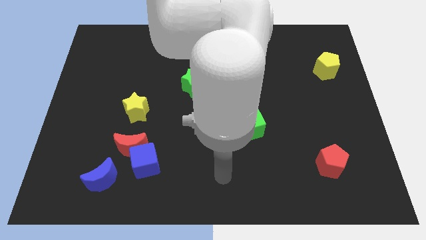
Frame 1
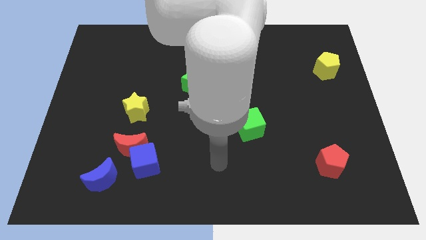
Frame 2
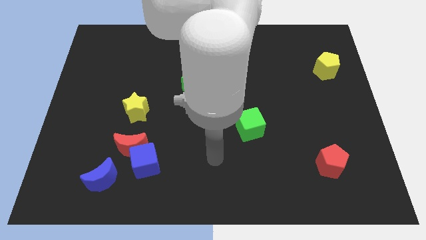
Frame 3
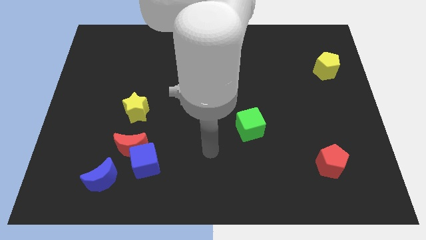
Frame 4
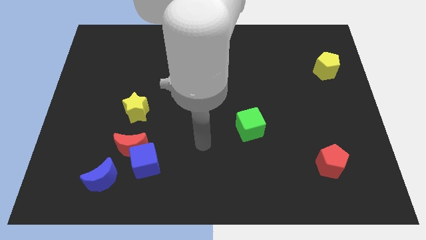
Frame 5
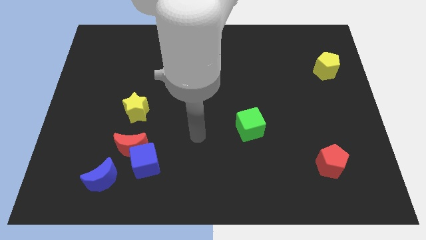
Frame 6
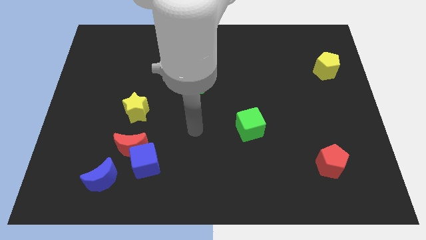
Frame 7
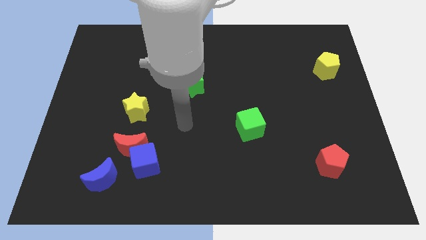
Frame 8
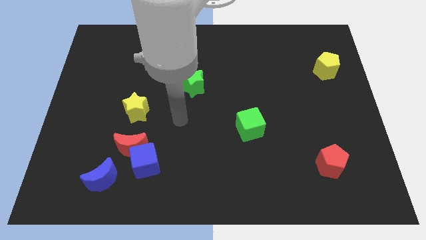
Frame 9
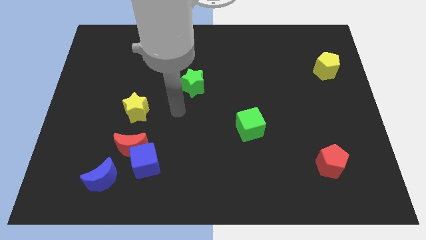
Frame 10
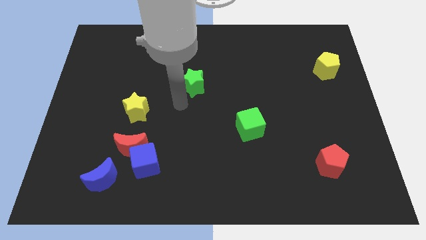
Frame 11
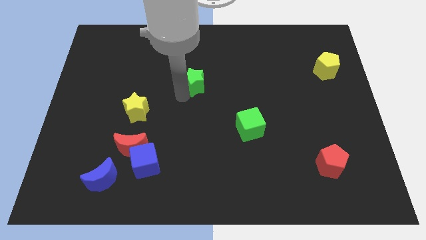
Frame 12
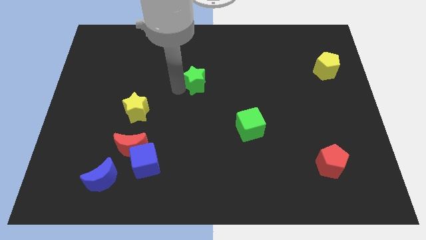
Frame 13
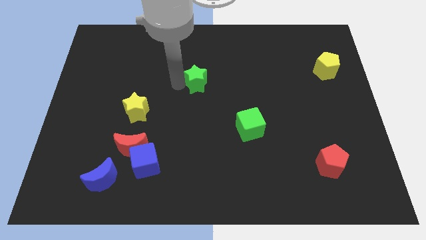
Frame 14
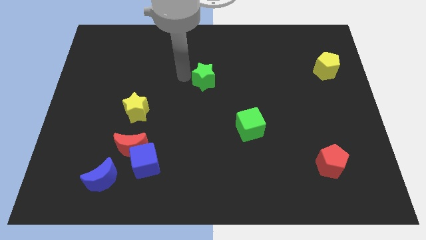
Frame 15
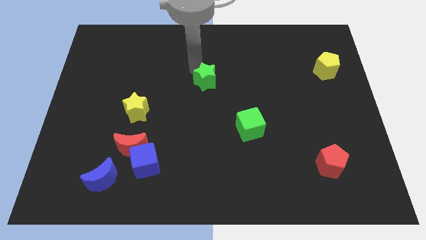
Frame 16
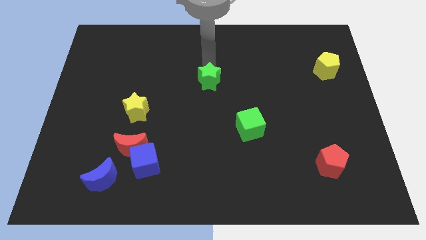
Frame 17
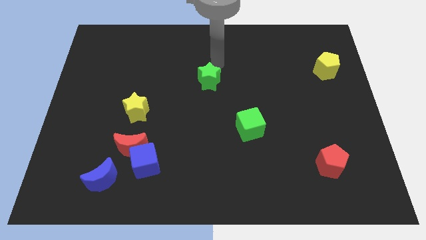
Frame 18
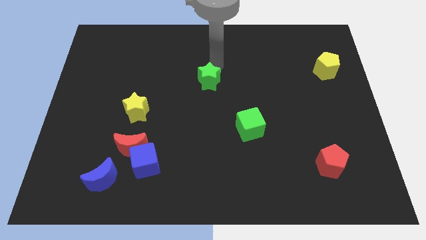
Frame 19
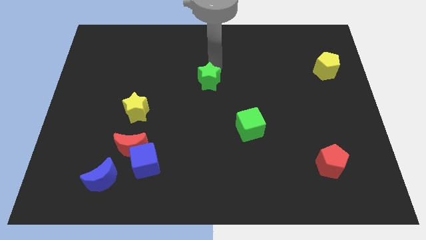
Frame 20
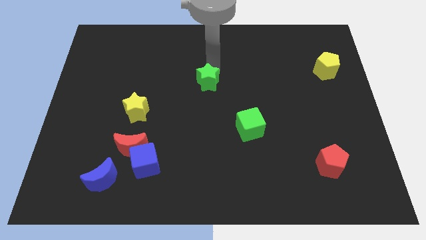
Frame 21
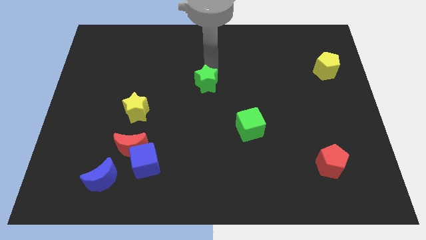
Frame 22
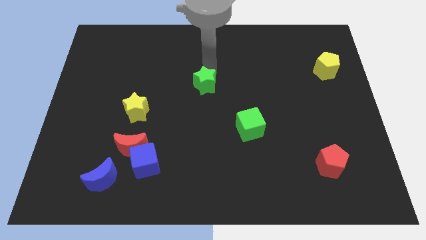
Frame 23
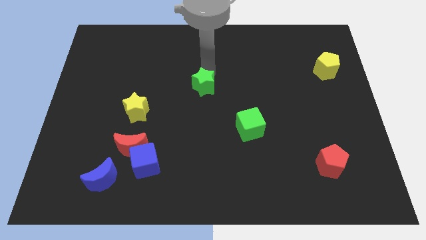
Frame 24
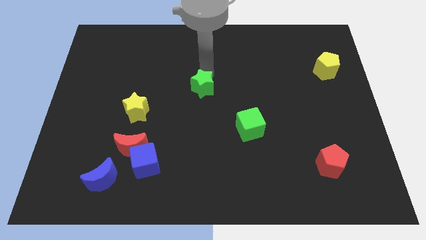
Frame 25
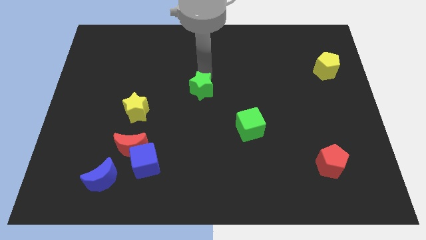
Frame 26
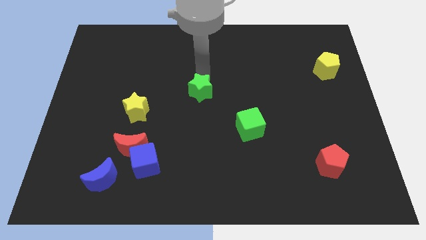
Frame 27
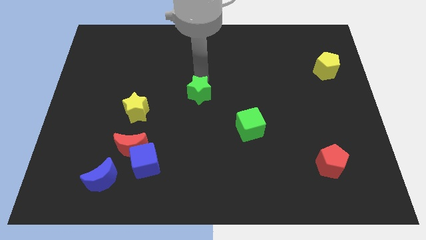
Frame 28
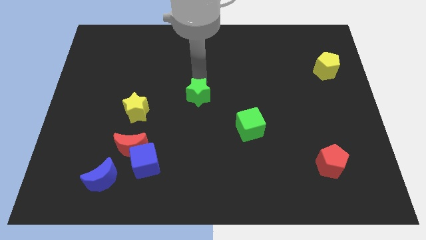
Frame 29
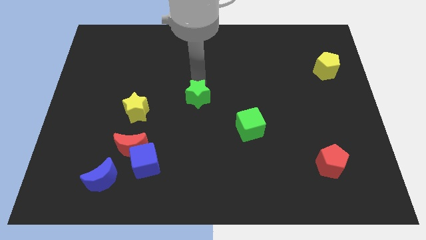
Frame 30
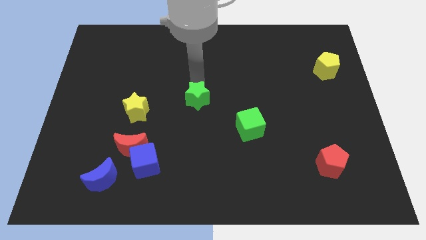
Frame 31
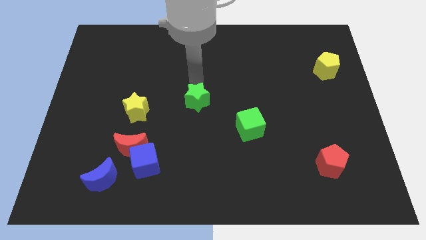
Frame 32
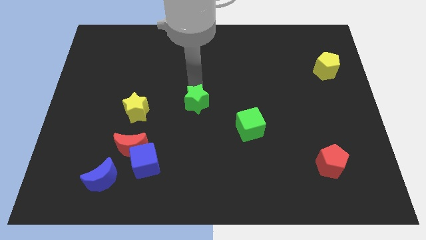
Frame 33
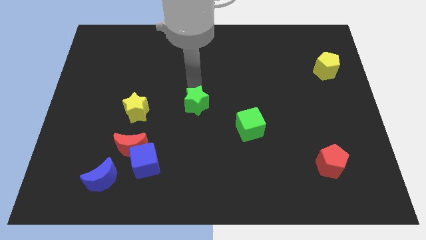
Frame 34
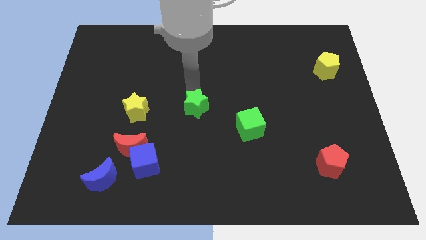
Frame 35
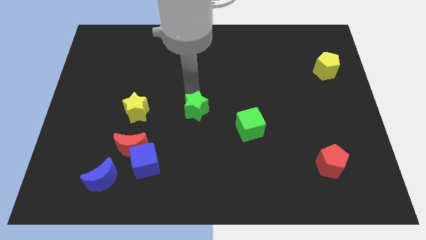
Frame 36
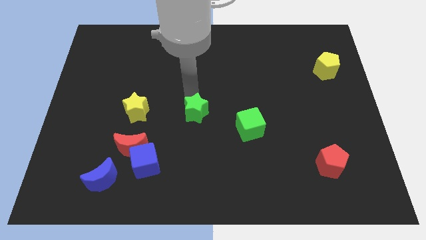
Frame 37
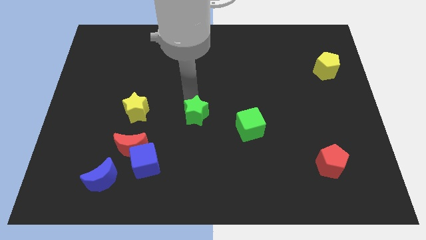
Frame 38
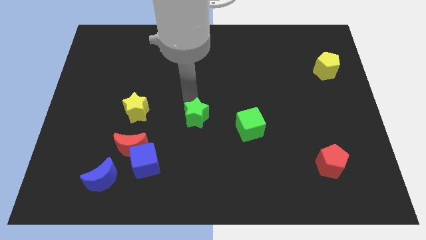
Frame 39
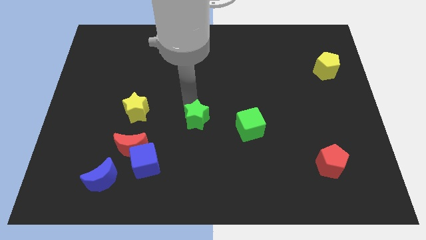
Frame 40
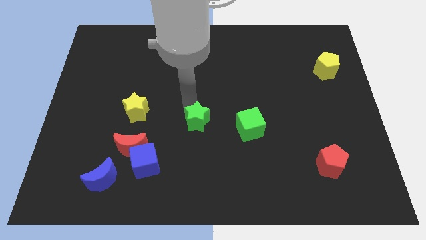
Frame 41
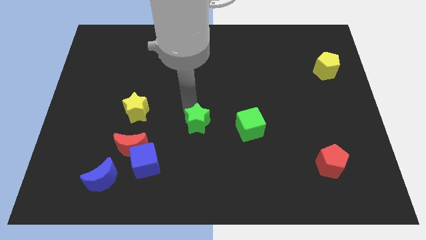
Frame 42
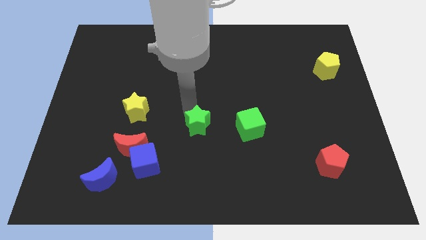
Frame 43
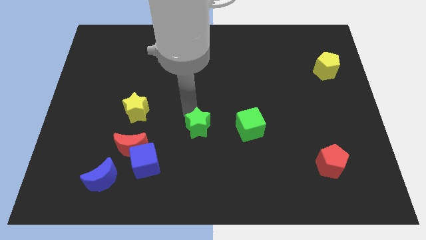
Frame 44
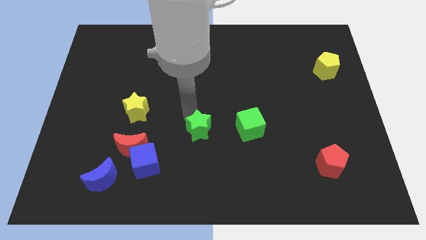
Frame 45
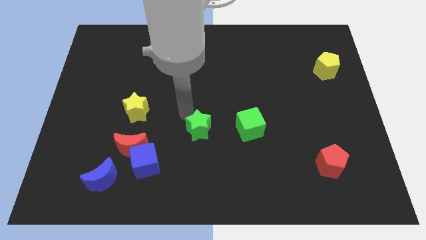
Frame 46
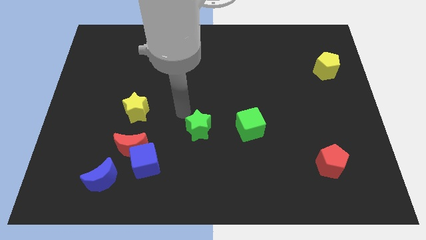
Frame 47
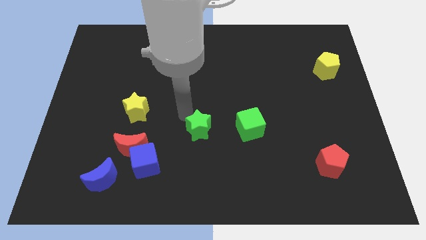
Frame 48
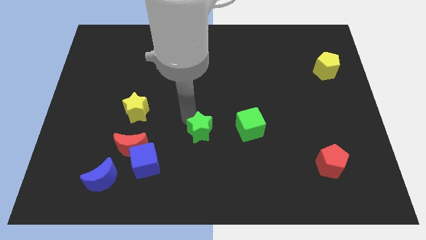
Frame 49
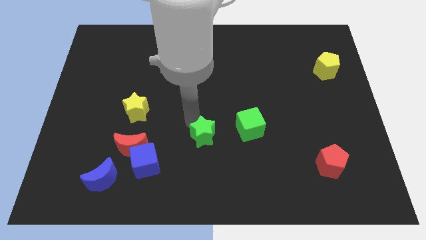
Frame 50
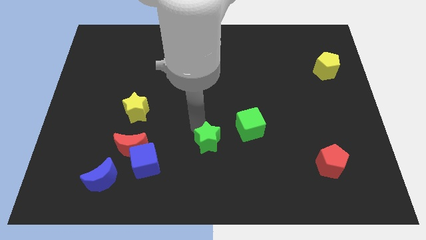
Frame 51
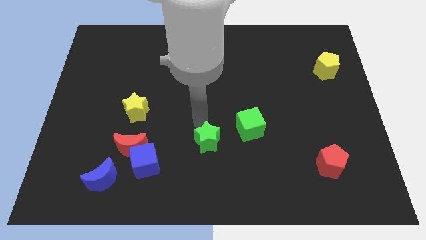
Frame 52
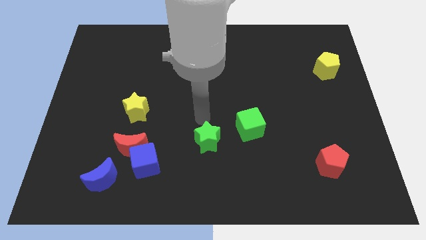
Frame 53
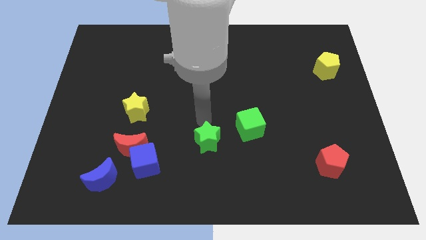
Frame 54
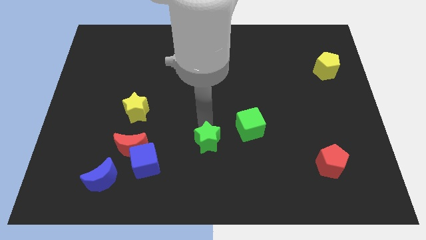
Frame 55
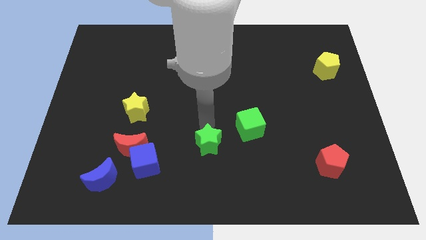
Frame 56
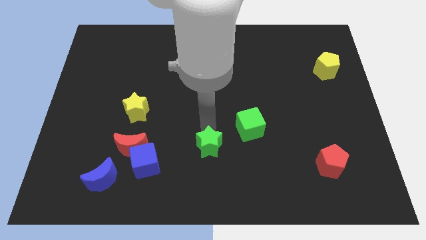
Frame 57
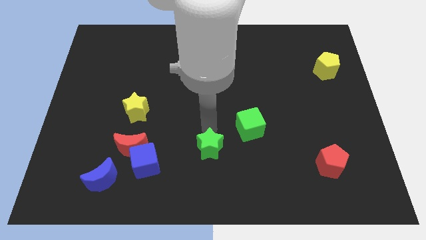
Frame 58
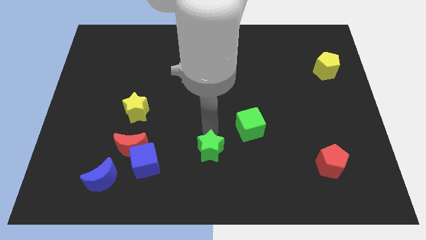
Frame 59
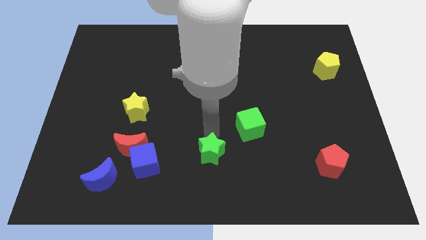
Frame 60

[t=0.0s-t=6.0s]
move the green star to the bottom side

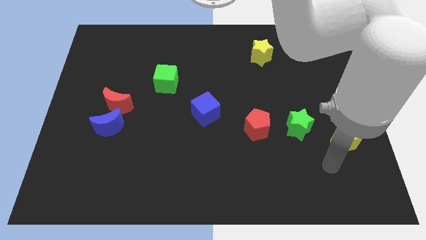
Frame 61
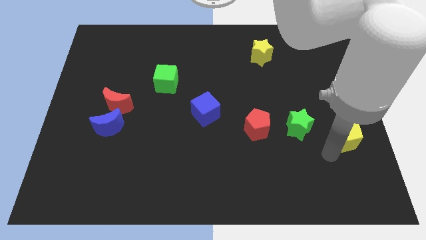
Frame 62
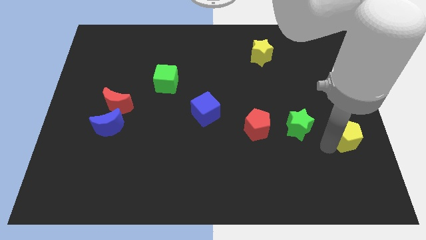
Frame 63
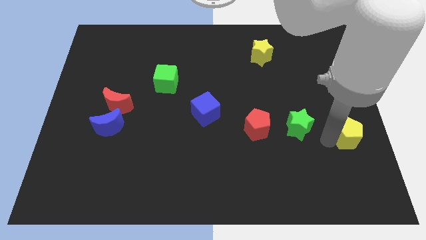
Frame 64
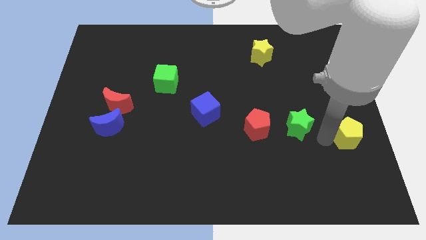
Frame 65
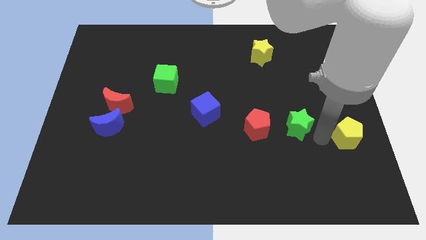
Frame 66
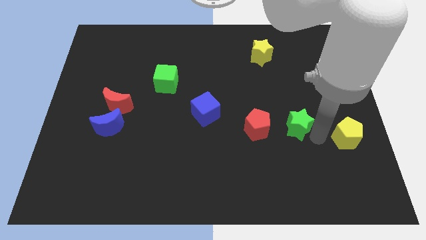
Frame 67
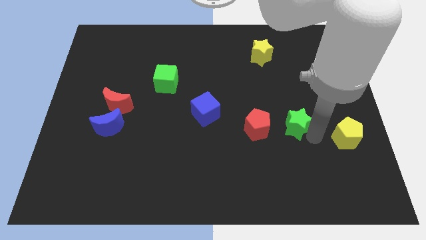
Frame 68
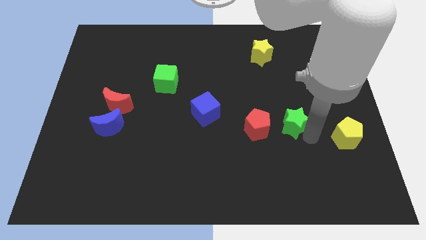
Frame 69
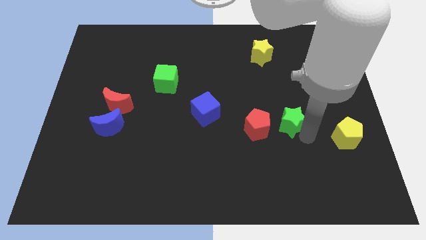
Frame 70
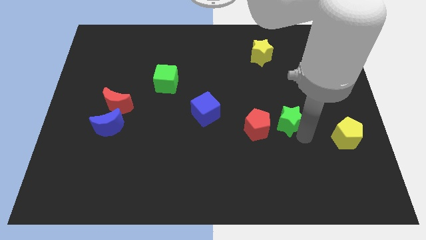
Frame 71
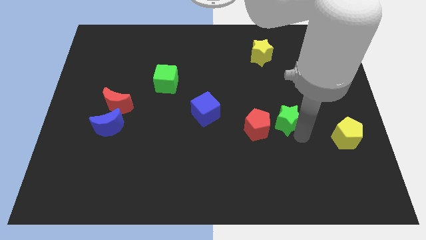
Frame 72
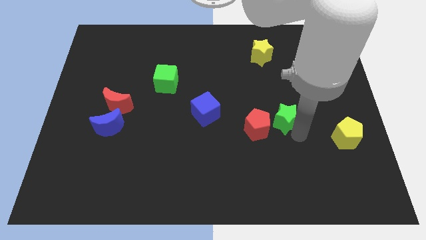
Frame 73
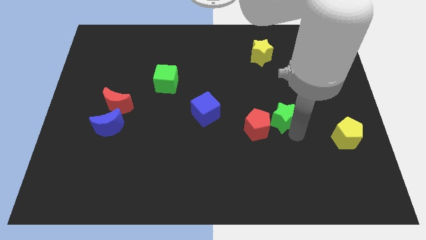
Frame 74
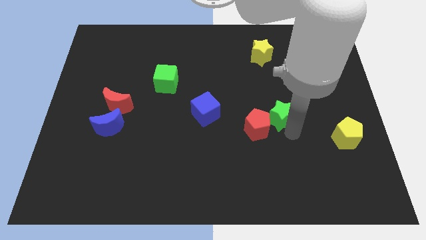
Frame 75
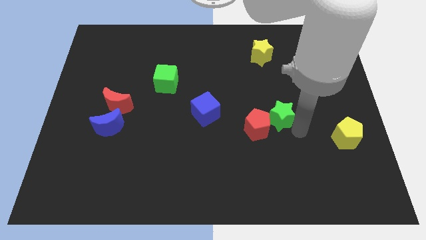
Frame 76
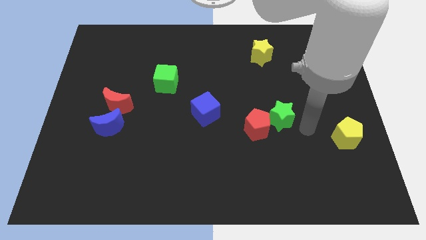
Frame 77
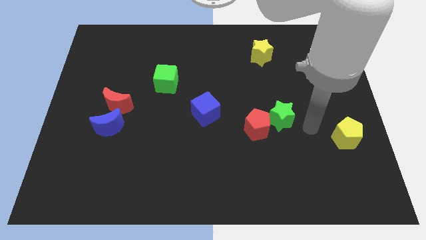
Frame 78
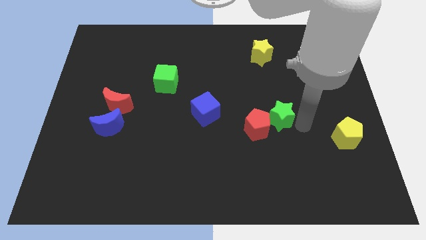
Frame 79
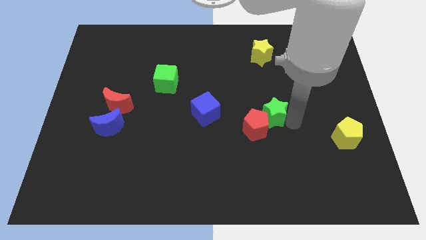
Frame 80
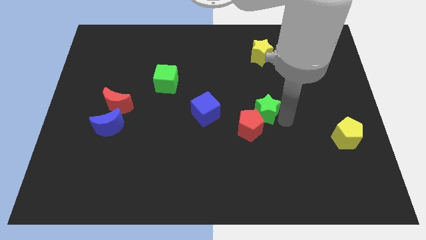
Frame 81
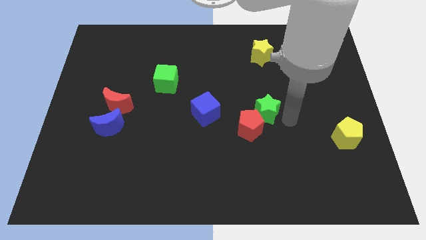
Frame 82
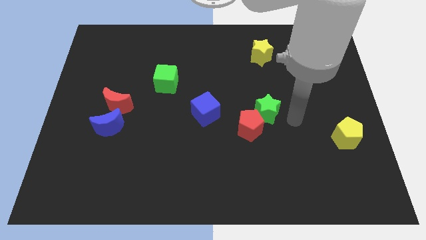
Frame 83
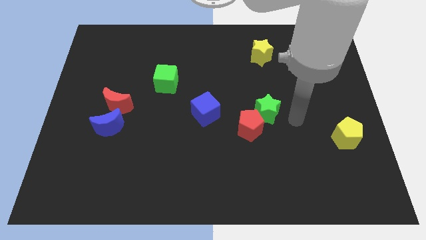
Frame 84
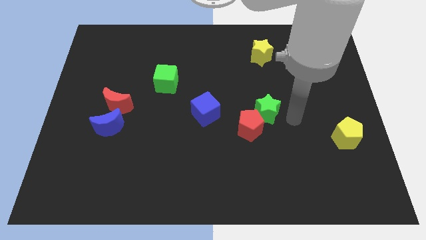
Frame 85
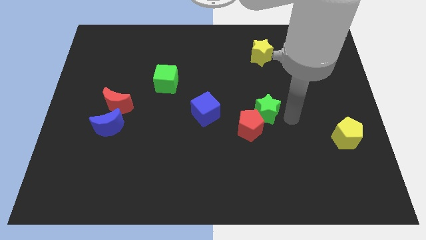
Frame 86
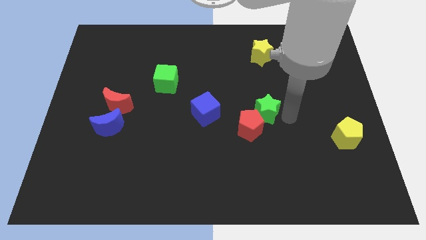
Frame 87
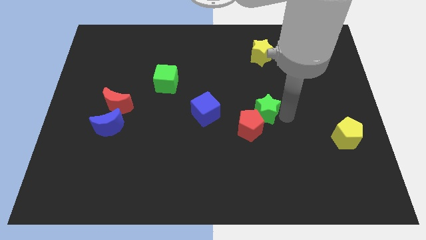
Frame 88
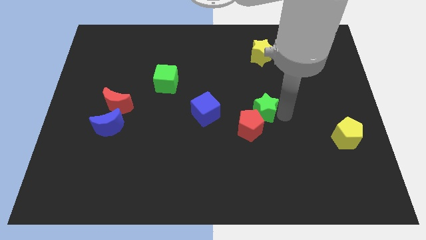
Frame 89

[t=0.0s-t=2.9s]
push the green star to the middle of the board
